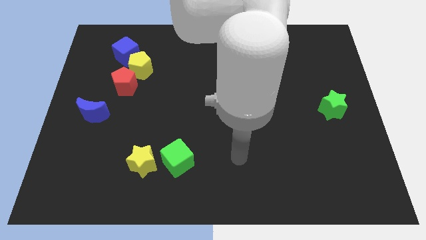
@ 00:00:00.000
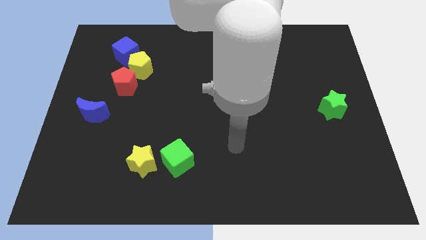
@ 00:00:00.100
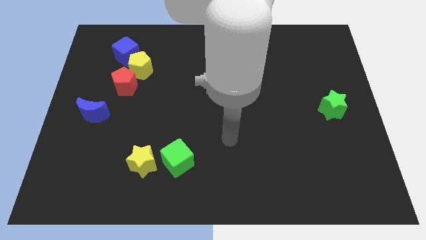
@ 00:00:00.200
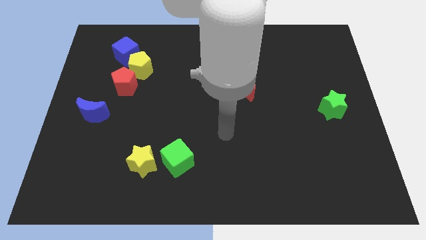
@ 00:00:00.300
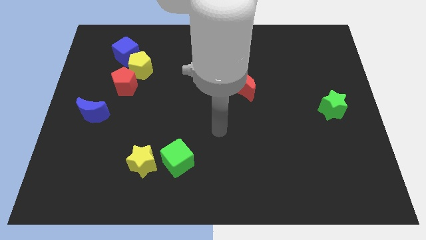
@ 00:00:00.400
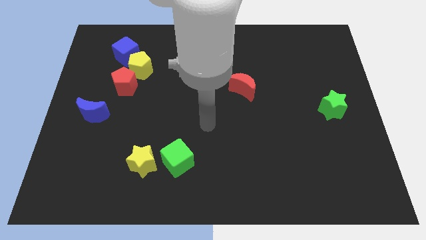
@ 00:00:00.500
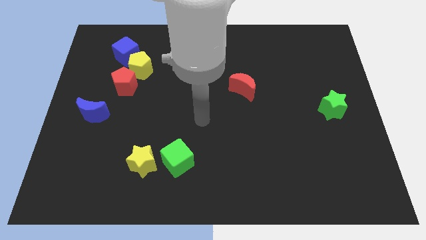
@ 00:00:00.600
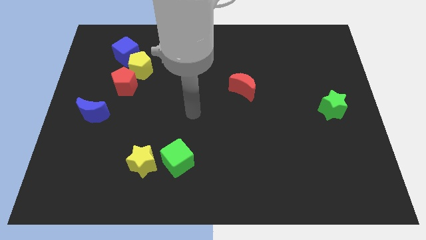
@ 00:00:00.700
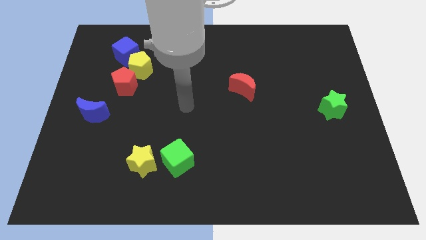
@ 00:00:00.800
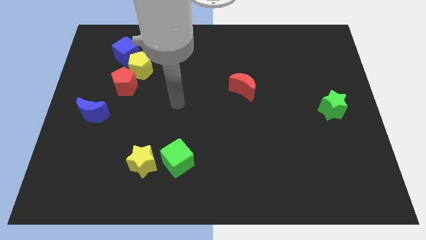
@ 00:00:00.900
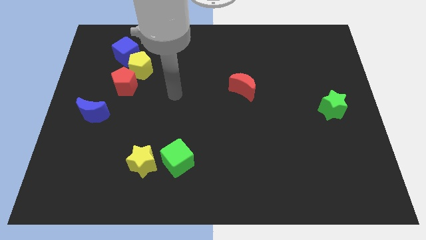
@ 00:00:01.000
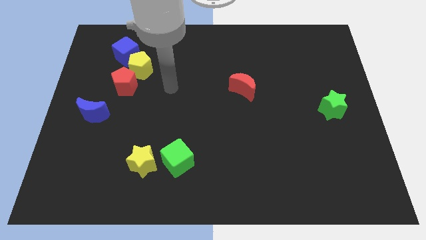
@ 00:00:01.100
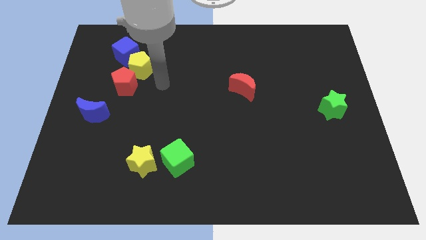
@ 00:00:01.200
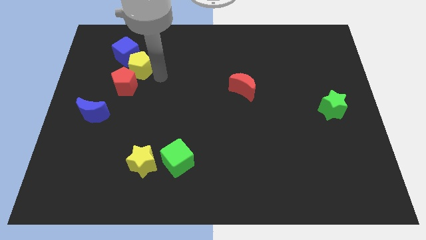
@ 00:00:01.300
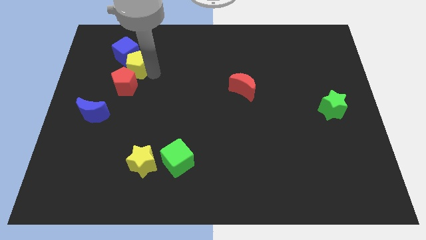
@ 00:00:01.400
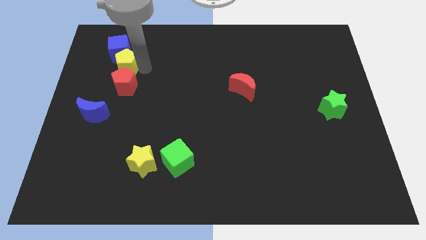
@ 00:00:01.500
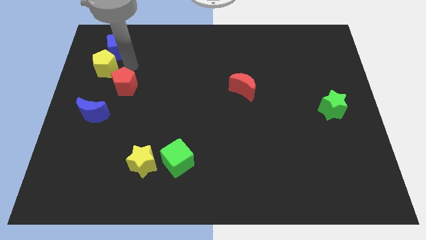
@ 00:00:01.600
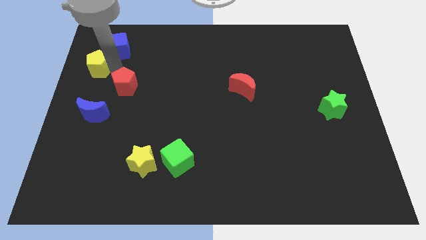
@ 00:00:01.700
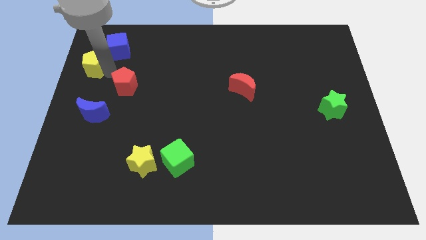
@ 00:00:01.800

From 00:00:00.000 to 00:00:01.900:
move the red pentagon away from the yellow pentagon

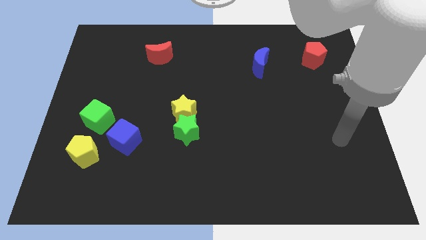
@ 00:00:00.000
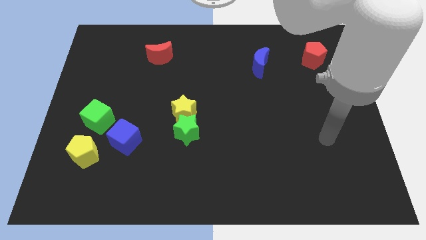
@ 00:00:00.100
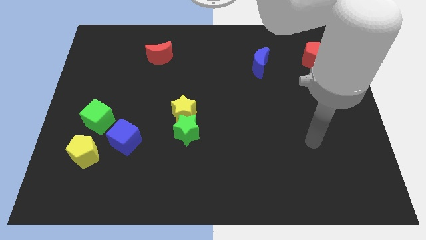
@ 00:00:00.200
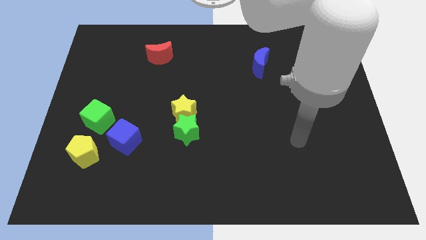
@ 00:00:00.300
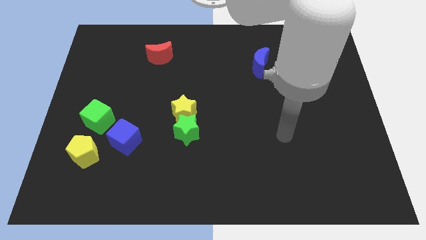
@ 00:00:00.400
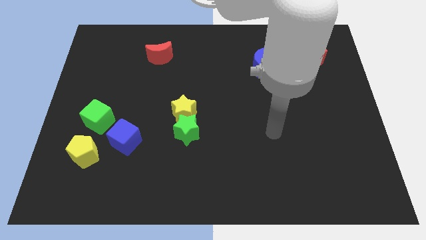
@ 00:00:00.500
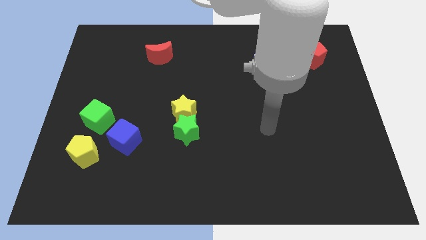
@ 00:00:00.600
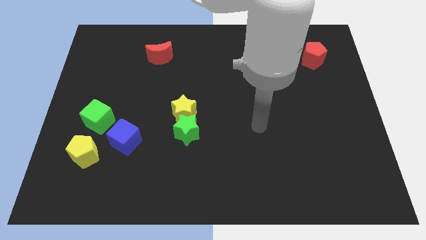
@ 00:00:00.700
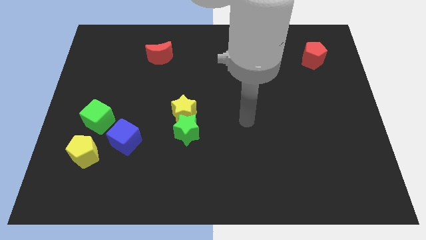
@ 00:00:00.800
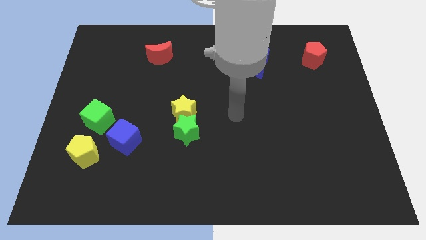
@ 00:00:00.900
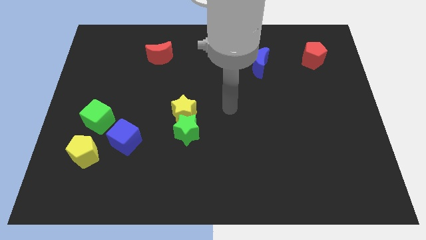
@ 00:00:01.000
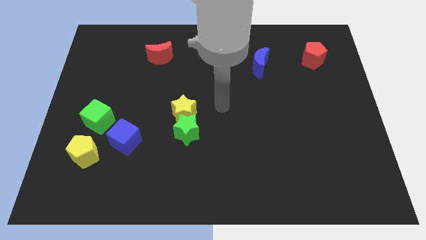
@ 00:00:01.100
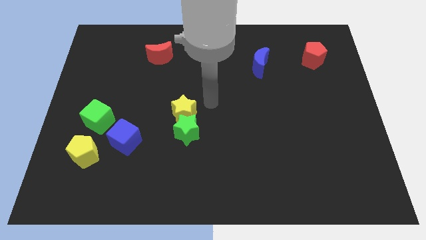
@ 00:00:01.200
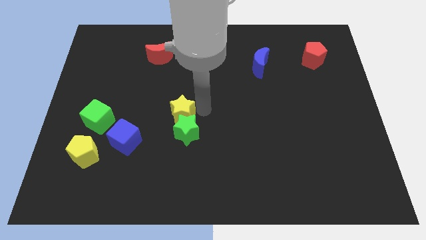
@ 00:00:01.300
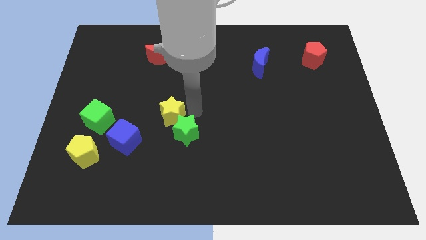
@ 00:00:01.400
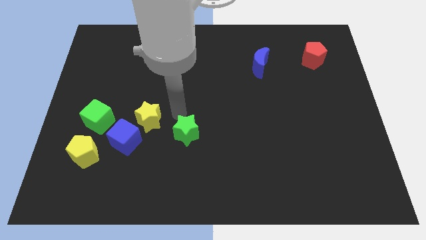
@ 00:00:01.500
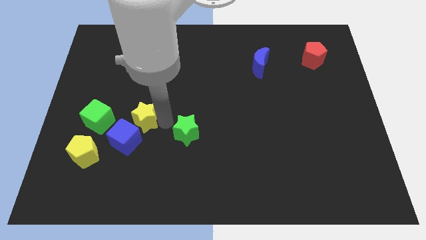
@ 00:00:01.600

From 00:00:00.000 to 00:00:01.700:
move the green star away from the yellow star

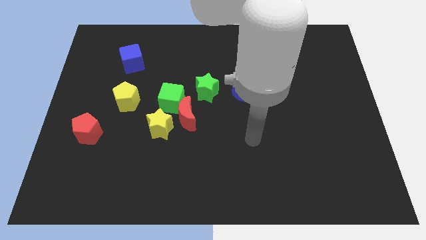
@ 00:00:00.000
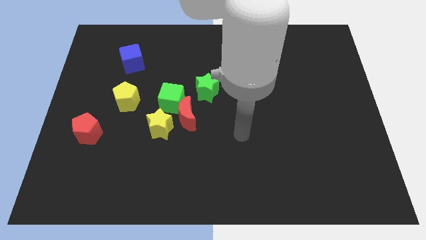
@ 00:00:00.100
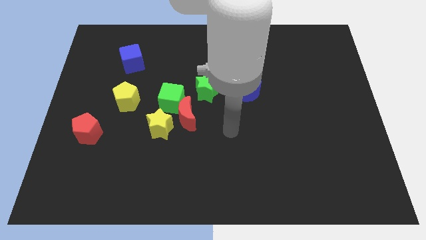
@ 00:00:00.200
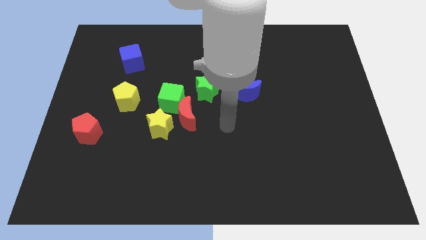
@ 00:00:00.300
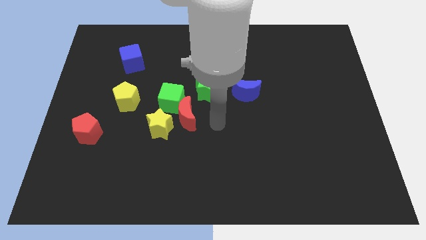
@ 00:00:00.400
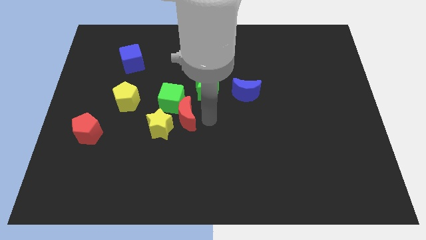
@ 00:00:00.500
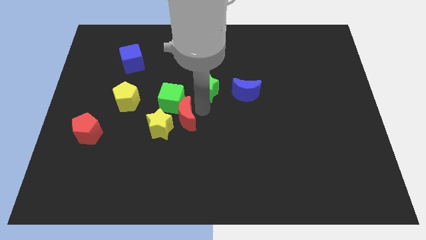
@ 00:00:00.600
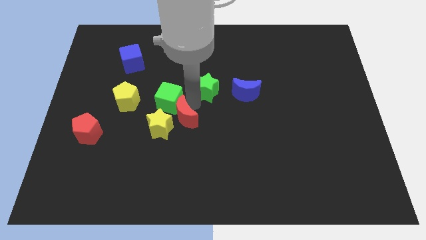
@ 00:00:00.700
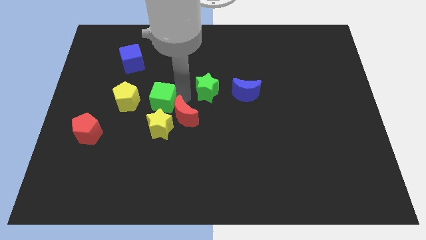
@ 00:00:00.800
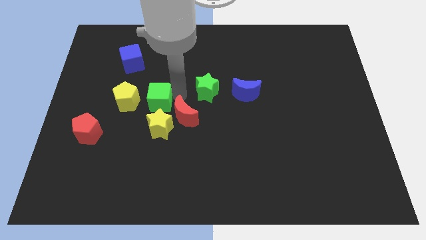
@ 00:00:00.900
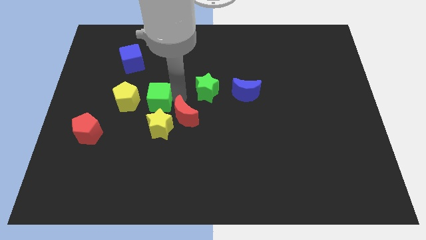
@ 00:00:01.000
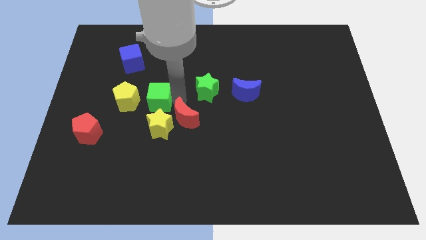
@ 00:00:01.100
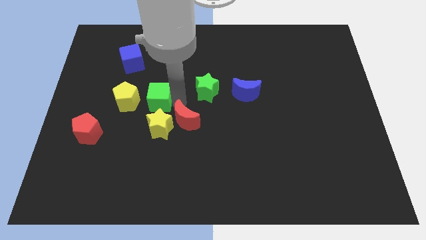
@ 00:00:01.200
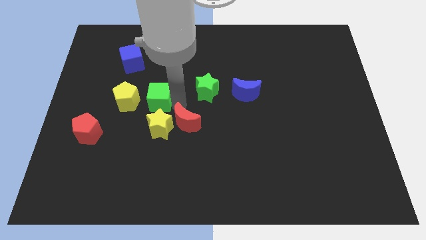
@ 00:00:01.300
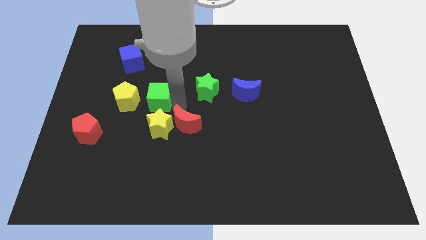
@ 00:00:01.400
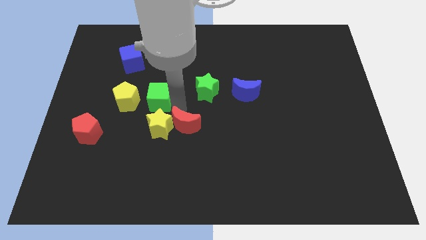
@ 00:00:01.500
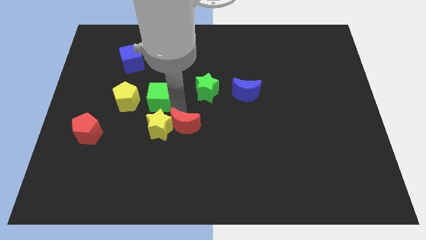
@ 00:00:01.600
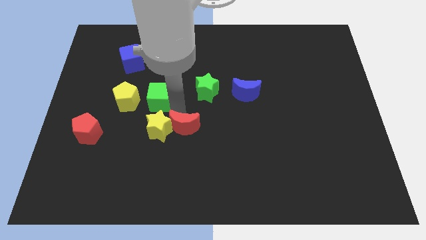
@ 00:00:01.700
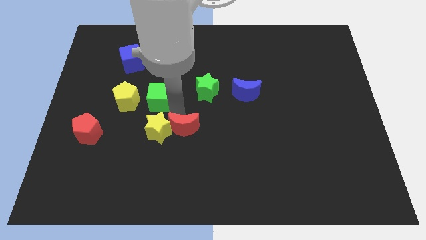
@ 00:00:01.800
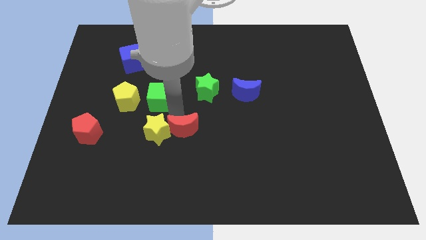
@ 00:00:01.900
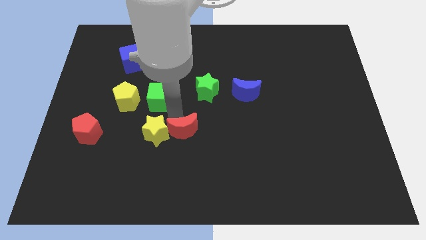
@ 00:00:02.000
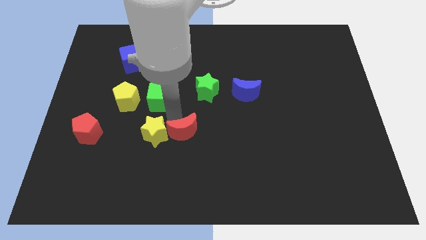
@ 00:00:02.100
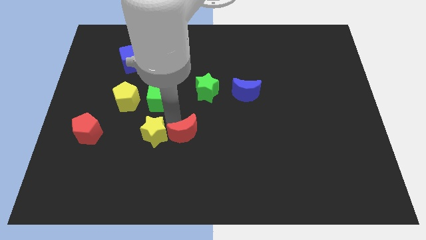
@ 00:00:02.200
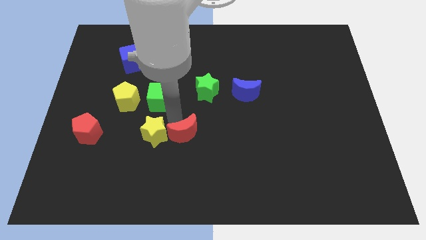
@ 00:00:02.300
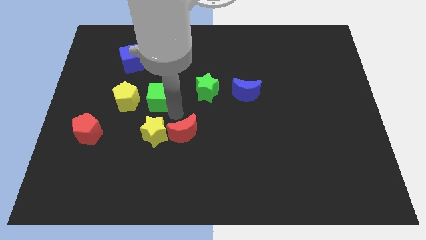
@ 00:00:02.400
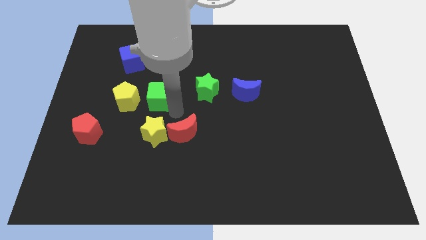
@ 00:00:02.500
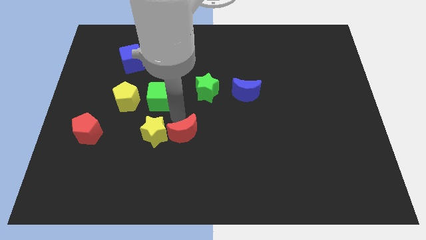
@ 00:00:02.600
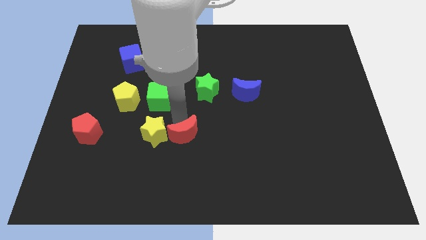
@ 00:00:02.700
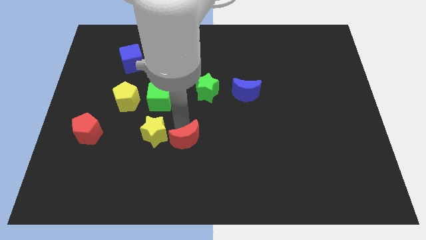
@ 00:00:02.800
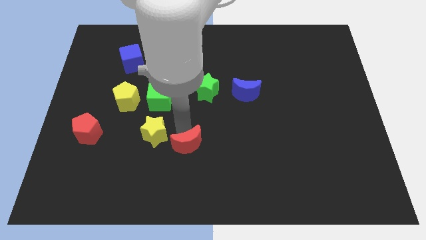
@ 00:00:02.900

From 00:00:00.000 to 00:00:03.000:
move the red moon away from the green cube, yellow star, and green star

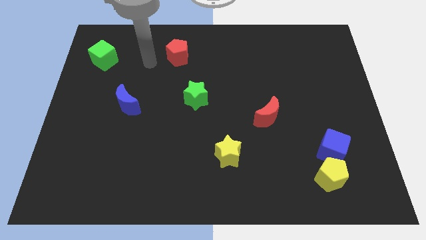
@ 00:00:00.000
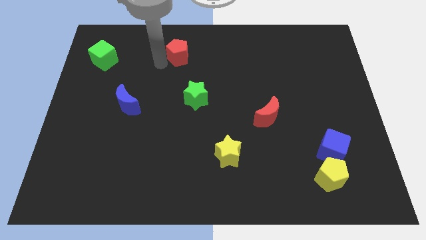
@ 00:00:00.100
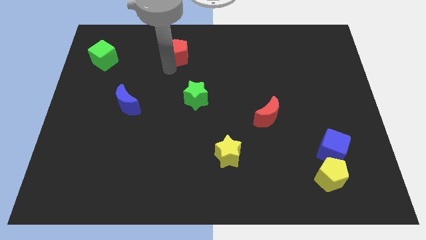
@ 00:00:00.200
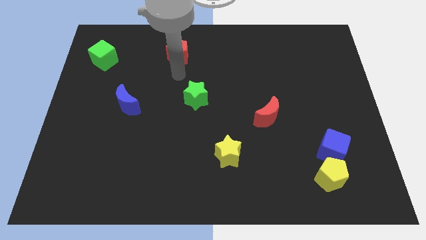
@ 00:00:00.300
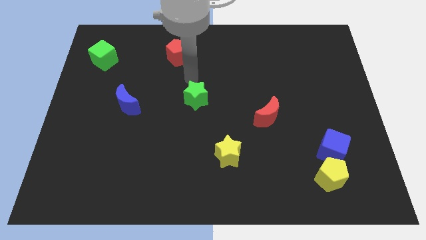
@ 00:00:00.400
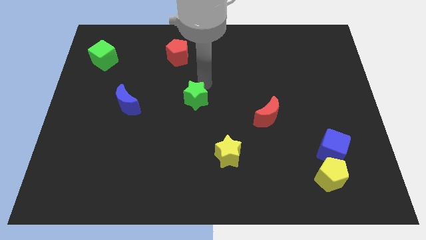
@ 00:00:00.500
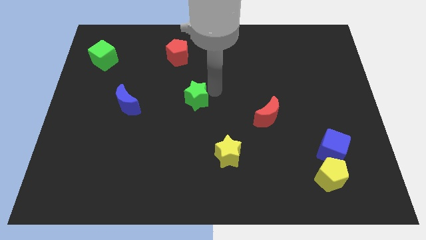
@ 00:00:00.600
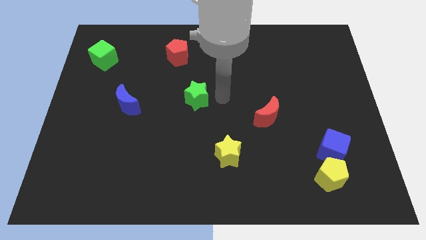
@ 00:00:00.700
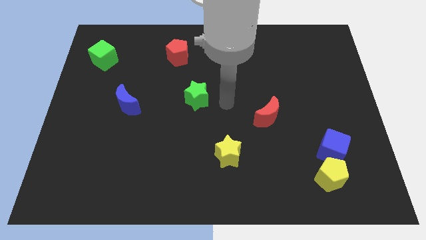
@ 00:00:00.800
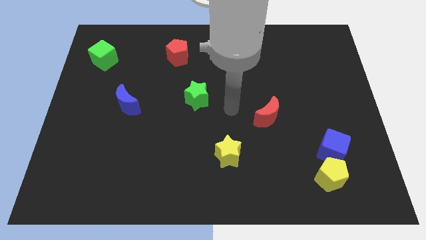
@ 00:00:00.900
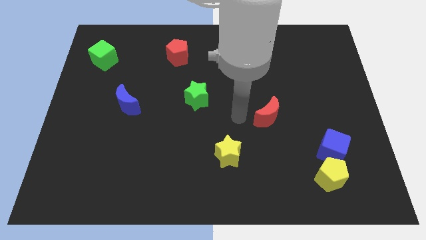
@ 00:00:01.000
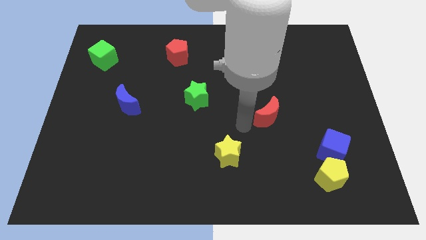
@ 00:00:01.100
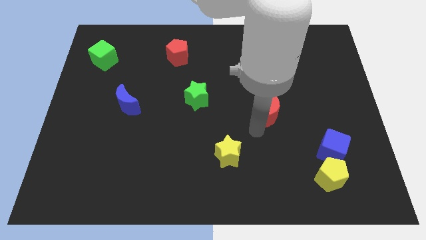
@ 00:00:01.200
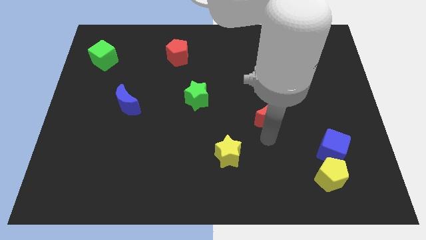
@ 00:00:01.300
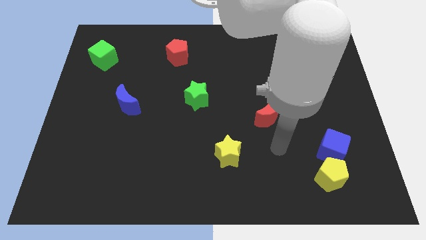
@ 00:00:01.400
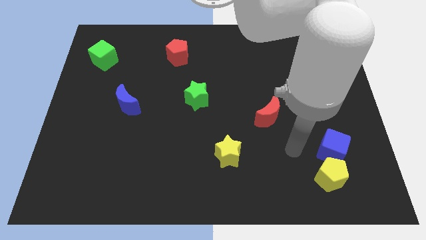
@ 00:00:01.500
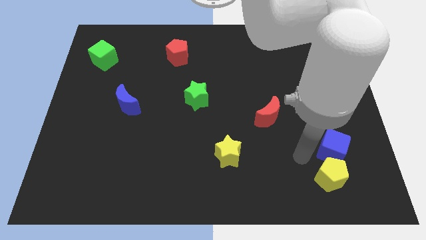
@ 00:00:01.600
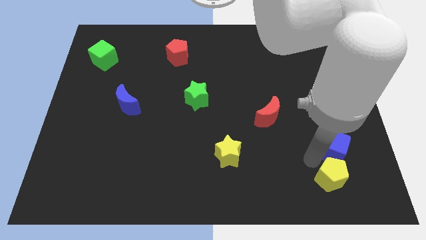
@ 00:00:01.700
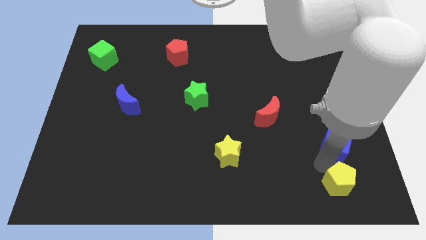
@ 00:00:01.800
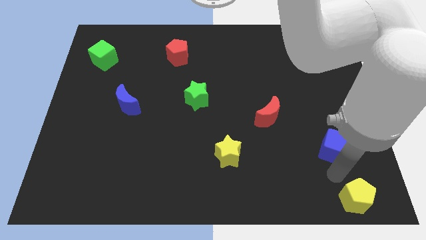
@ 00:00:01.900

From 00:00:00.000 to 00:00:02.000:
separate the blue cube from the yellow pentagon

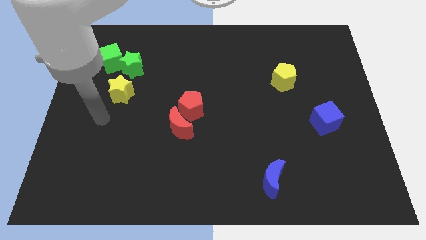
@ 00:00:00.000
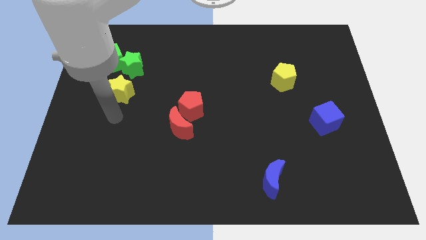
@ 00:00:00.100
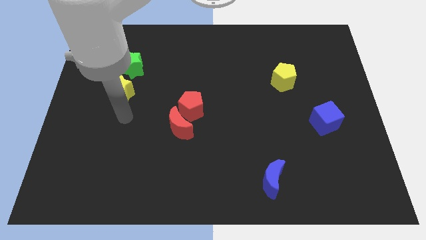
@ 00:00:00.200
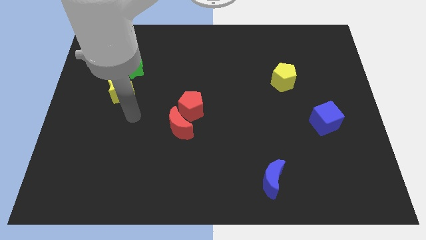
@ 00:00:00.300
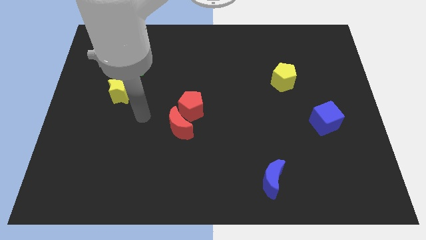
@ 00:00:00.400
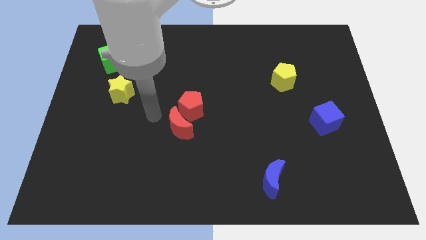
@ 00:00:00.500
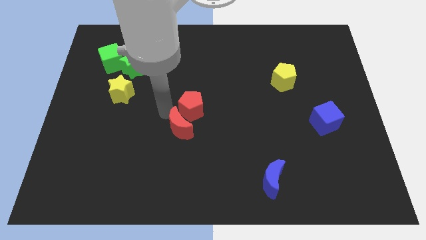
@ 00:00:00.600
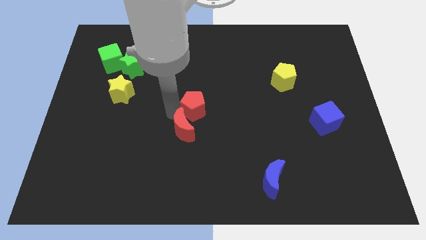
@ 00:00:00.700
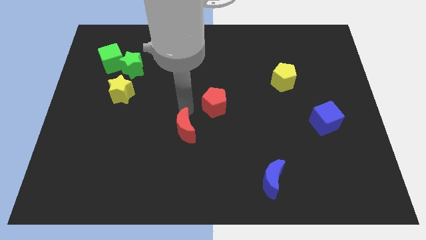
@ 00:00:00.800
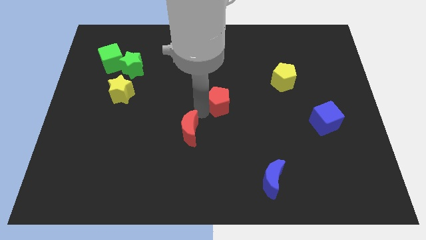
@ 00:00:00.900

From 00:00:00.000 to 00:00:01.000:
pull the red moon apart from the red pentagon
